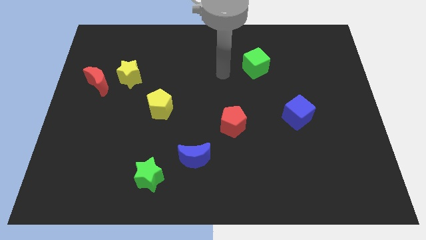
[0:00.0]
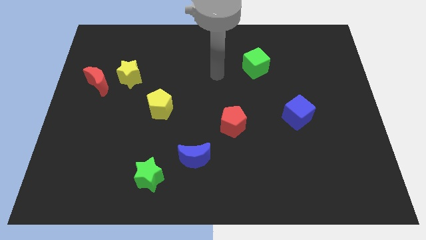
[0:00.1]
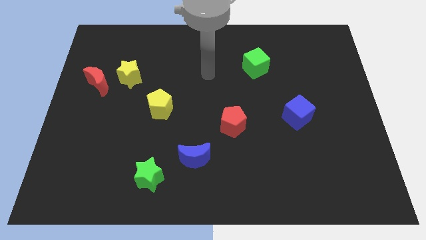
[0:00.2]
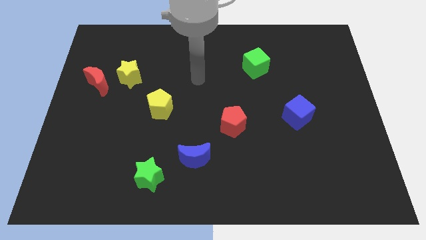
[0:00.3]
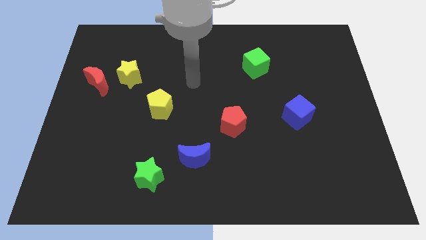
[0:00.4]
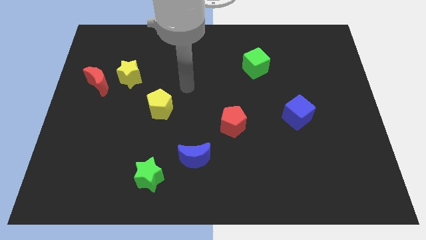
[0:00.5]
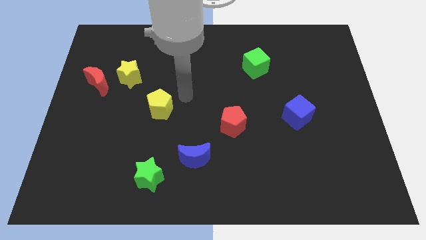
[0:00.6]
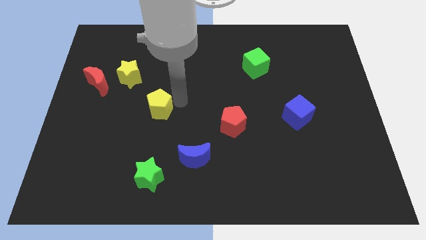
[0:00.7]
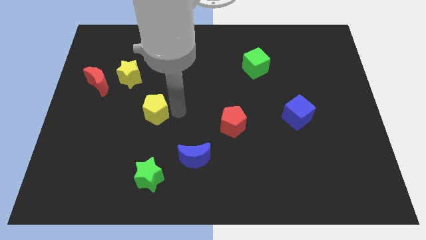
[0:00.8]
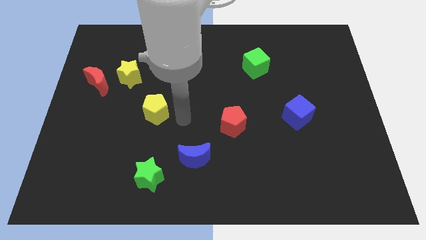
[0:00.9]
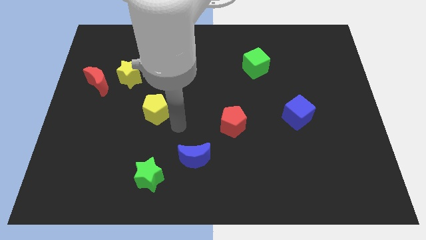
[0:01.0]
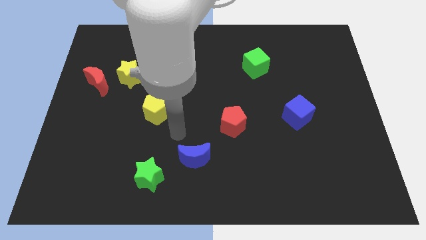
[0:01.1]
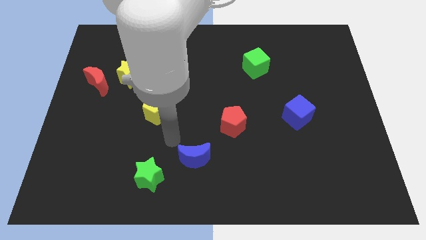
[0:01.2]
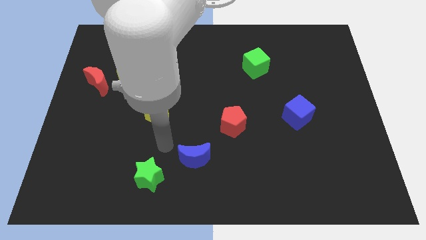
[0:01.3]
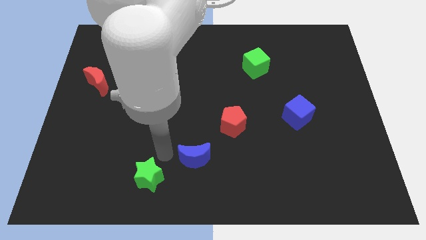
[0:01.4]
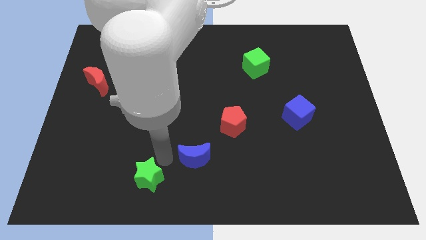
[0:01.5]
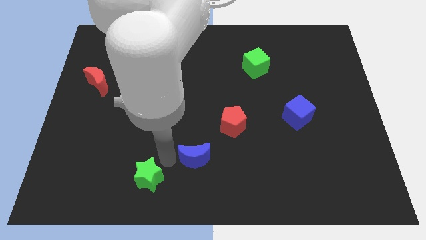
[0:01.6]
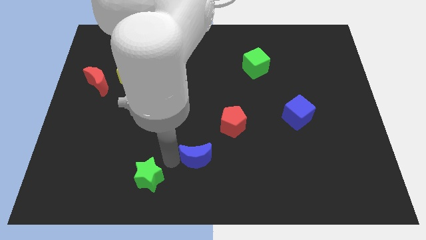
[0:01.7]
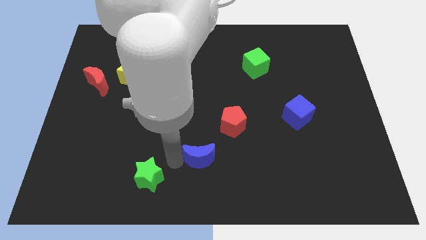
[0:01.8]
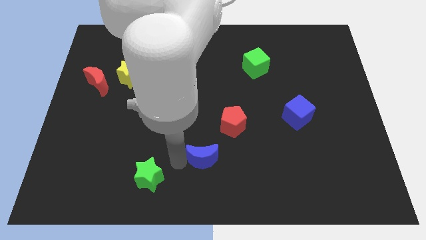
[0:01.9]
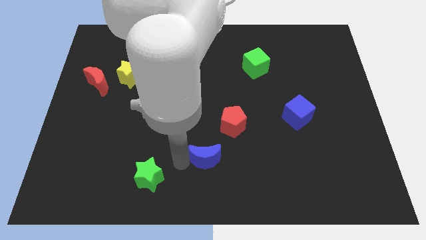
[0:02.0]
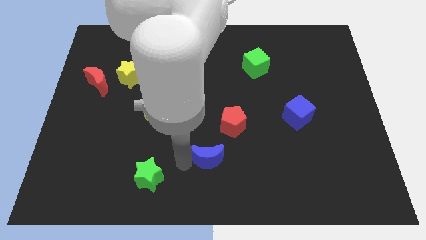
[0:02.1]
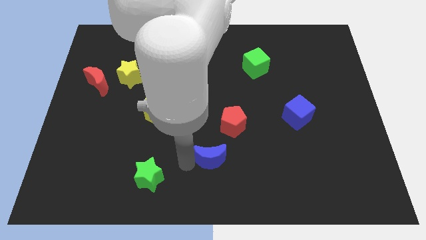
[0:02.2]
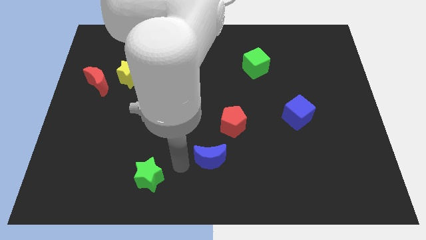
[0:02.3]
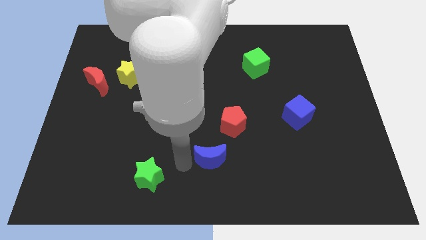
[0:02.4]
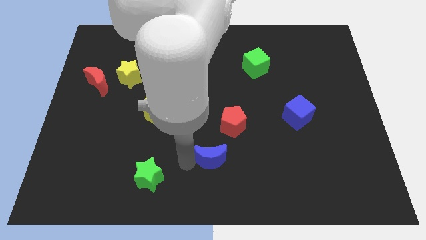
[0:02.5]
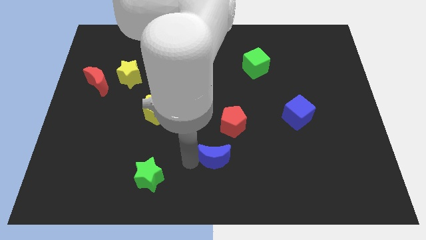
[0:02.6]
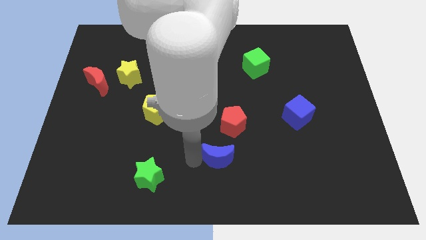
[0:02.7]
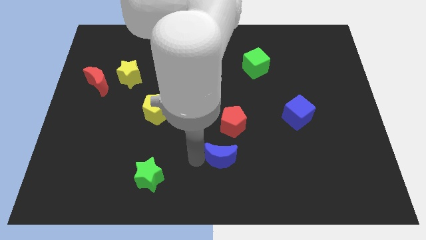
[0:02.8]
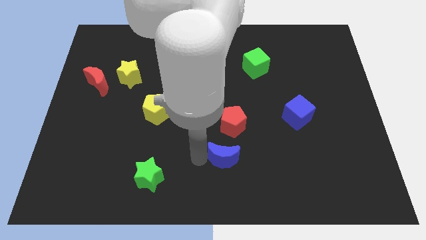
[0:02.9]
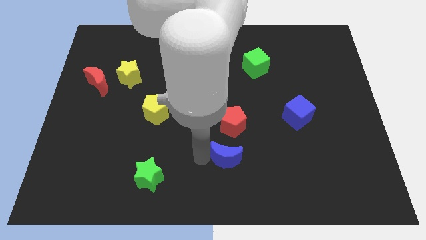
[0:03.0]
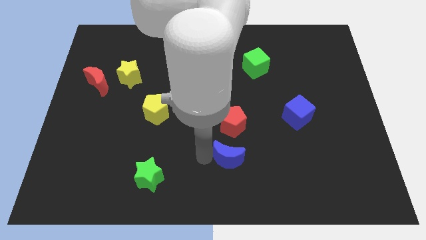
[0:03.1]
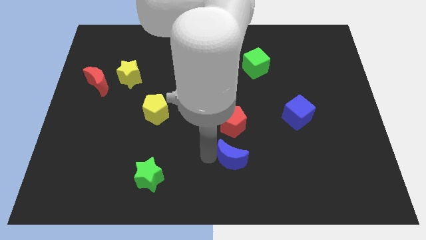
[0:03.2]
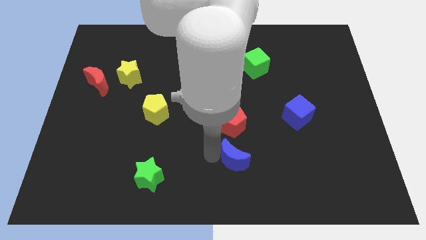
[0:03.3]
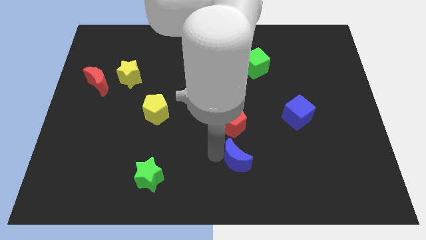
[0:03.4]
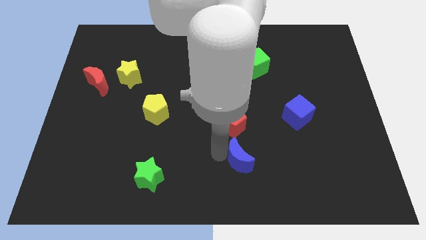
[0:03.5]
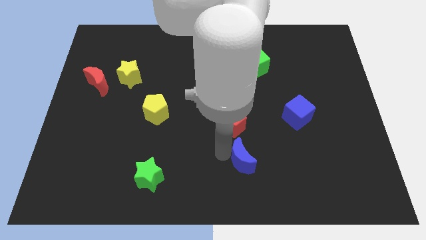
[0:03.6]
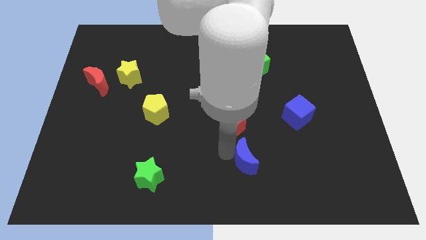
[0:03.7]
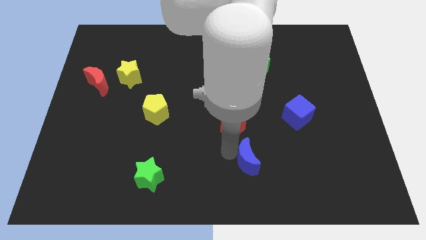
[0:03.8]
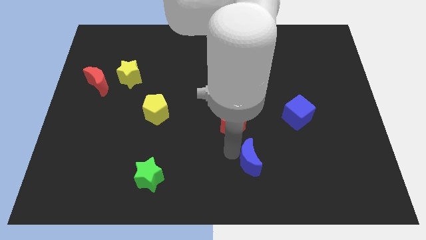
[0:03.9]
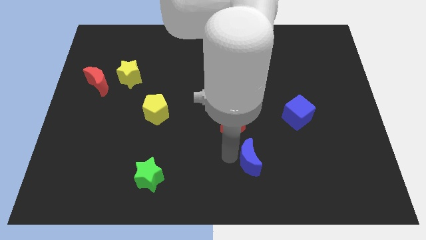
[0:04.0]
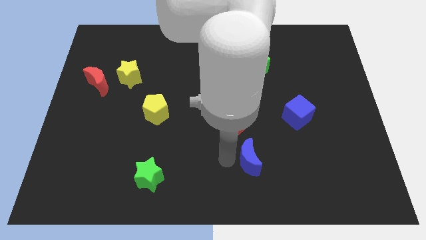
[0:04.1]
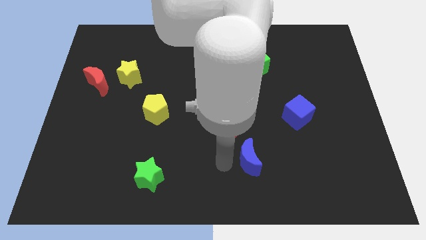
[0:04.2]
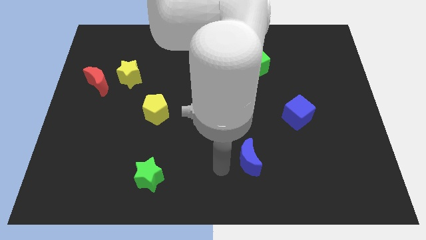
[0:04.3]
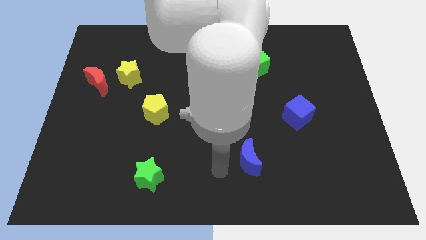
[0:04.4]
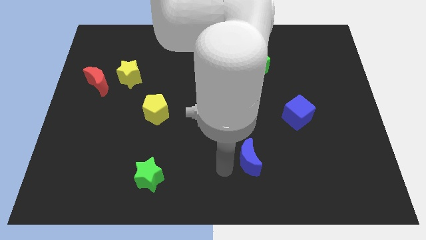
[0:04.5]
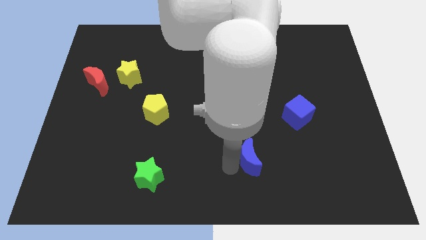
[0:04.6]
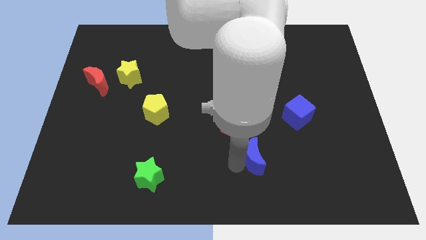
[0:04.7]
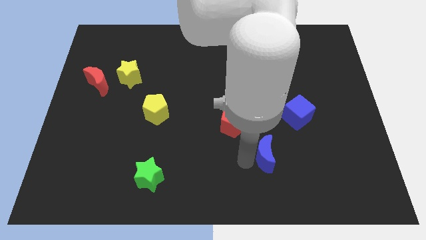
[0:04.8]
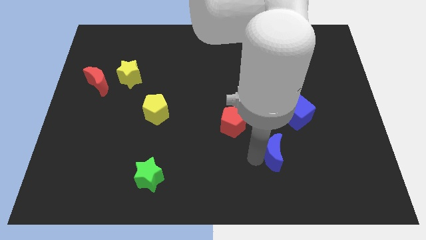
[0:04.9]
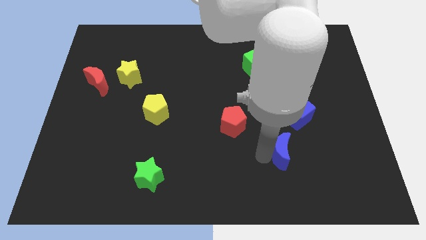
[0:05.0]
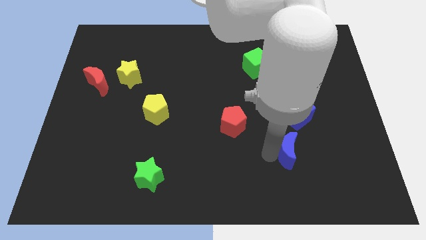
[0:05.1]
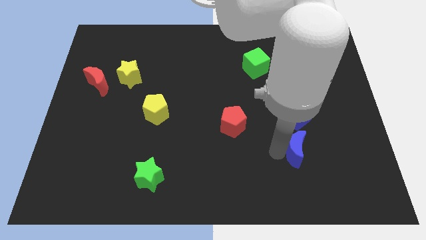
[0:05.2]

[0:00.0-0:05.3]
move the blue moon to the right

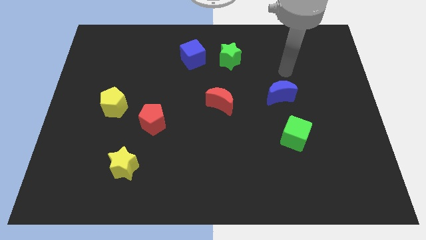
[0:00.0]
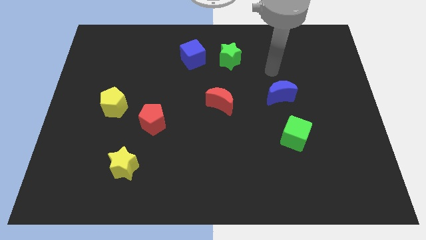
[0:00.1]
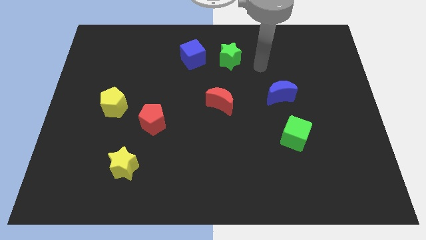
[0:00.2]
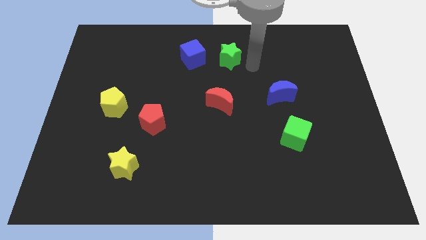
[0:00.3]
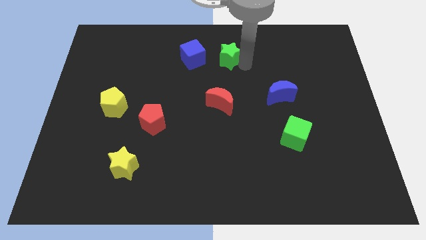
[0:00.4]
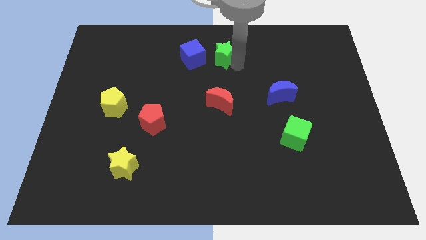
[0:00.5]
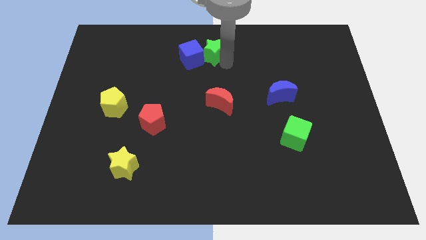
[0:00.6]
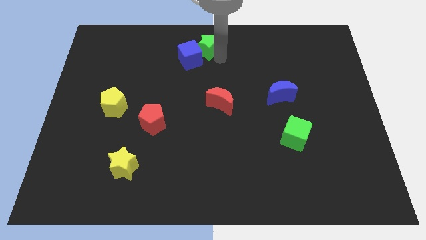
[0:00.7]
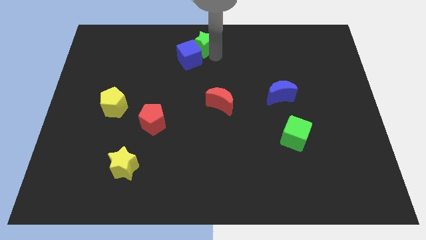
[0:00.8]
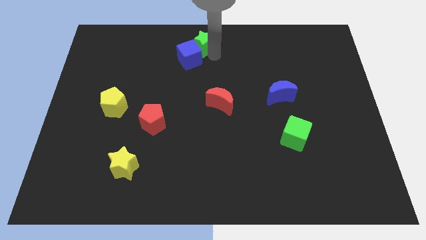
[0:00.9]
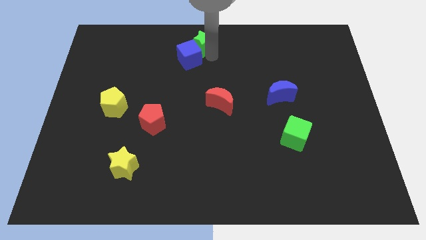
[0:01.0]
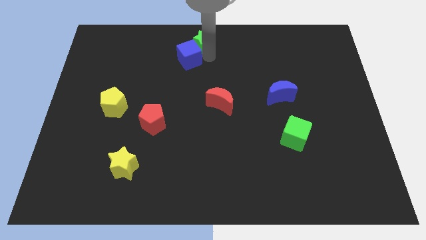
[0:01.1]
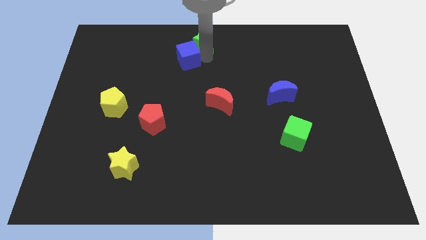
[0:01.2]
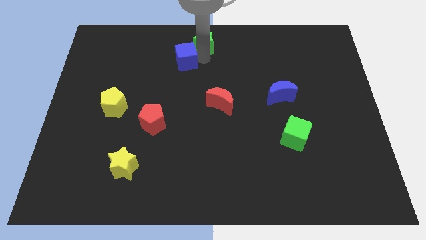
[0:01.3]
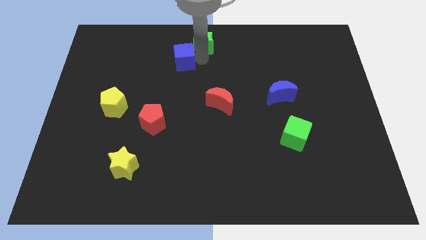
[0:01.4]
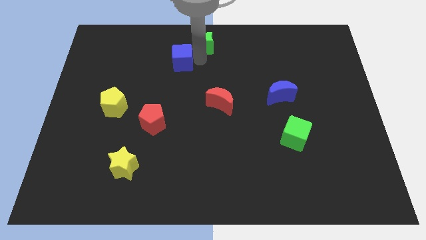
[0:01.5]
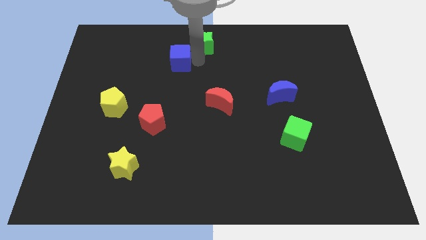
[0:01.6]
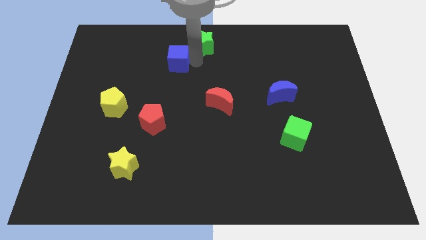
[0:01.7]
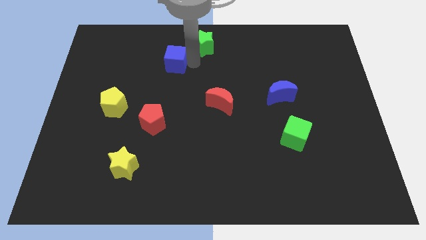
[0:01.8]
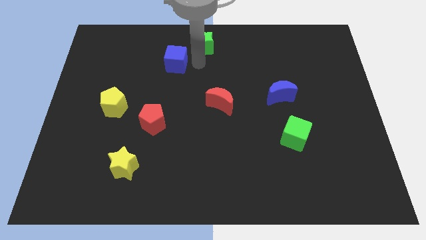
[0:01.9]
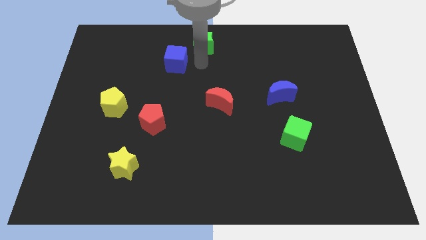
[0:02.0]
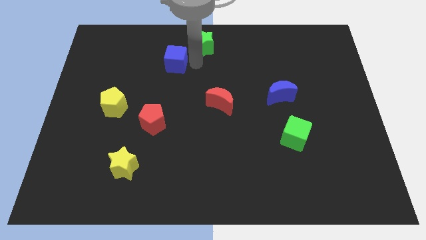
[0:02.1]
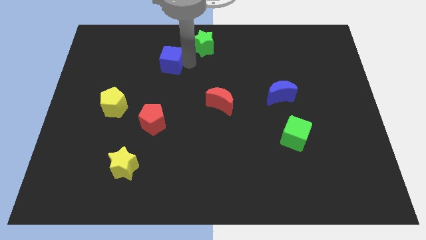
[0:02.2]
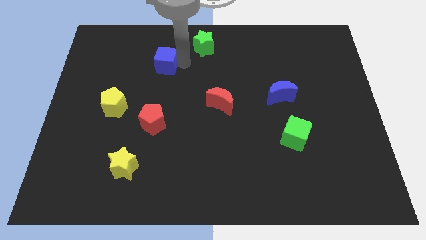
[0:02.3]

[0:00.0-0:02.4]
push the blue cube a bit left

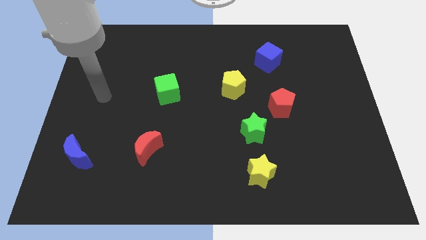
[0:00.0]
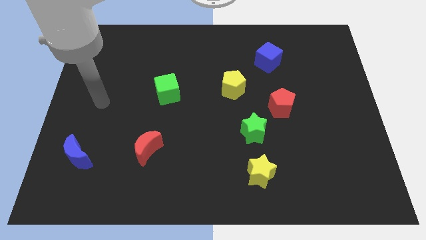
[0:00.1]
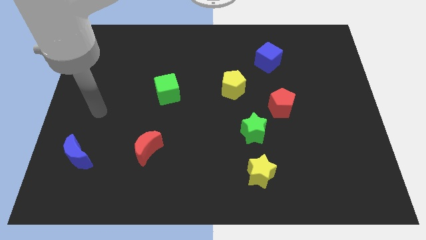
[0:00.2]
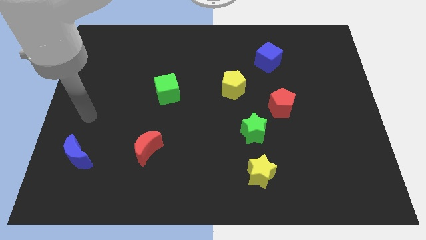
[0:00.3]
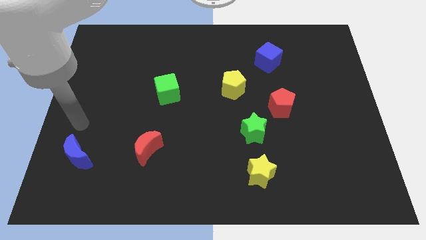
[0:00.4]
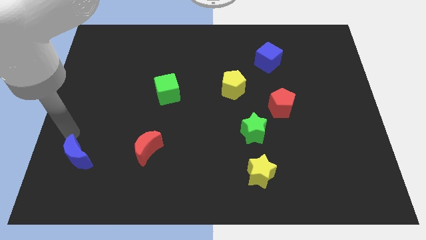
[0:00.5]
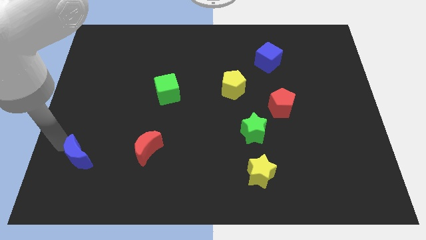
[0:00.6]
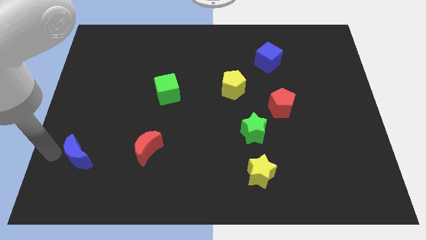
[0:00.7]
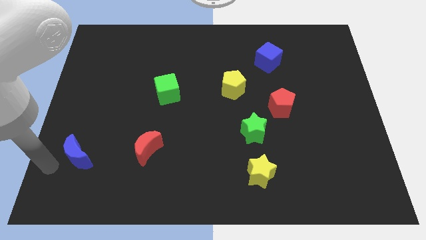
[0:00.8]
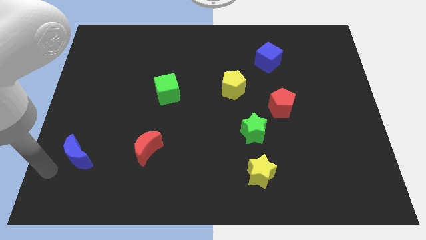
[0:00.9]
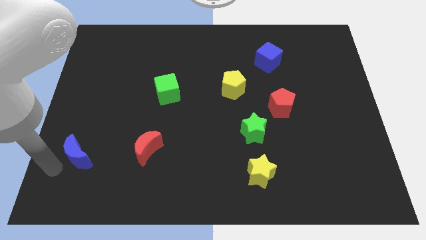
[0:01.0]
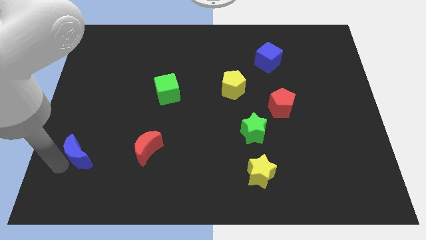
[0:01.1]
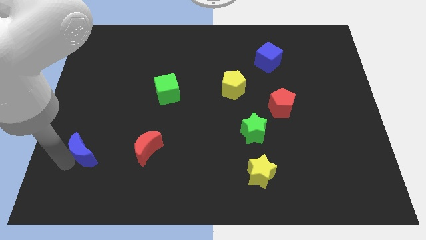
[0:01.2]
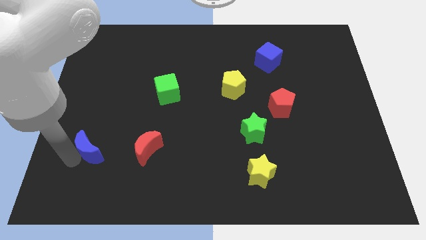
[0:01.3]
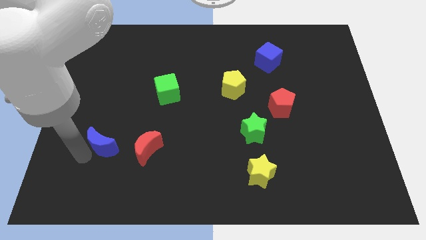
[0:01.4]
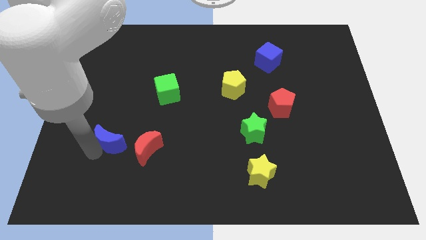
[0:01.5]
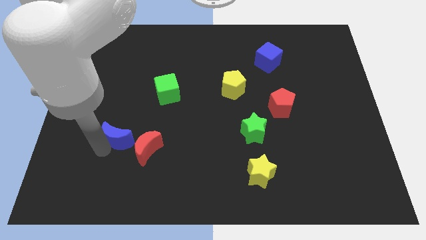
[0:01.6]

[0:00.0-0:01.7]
push the blue moon a bit up and to the right
